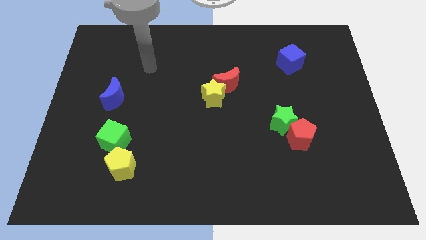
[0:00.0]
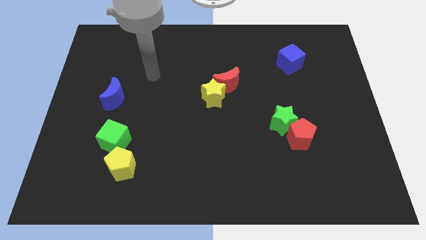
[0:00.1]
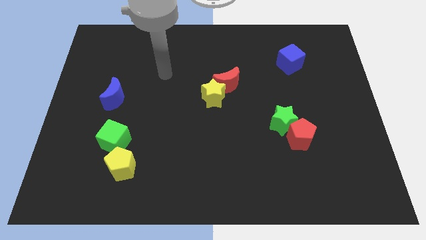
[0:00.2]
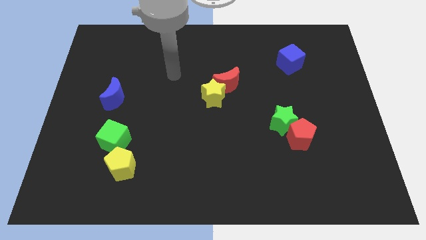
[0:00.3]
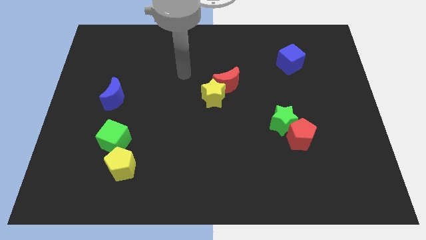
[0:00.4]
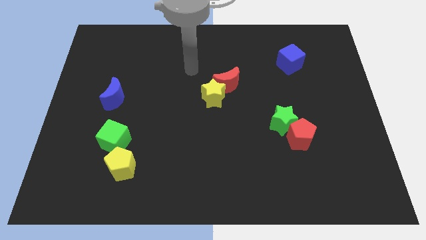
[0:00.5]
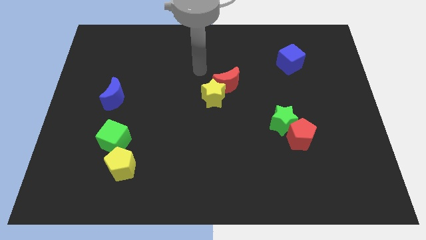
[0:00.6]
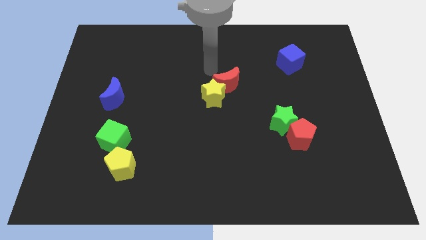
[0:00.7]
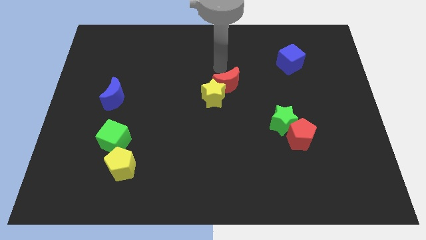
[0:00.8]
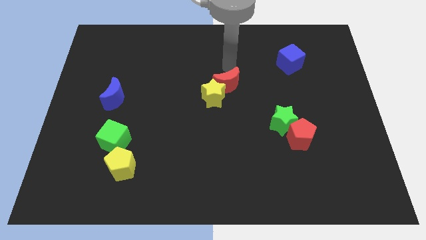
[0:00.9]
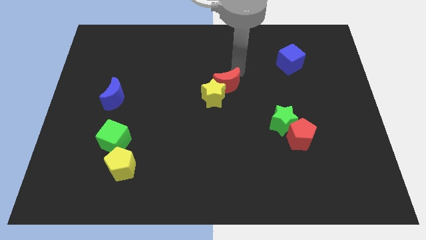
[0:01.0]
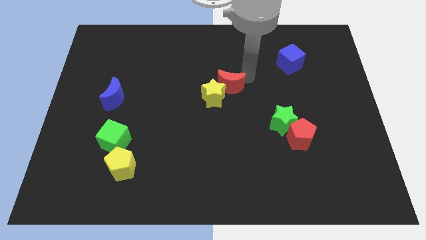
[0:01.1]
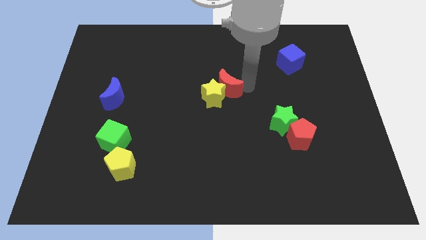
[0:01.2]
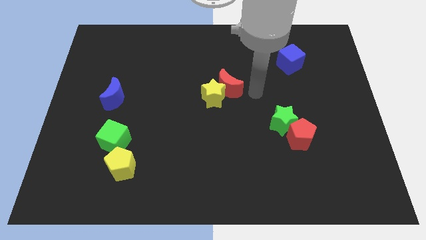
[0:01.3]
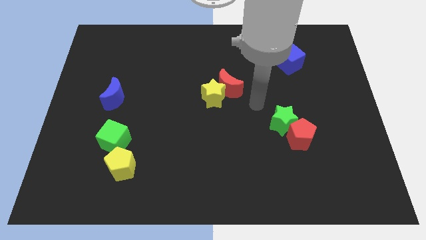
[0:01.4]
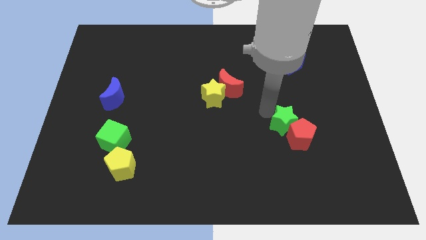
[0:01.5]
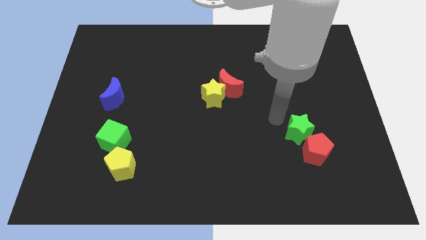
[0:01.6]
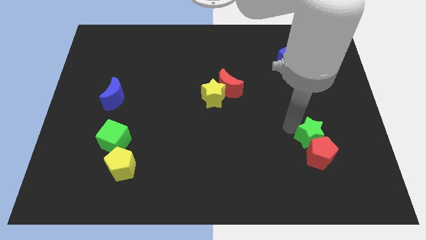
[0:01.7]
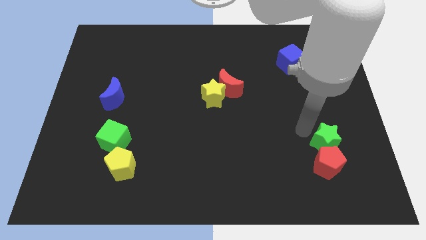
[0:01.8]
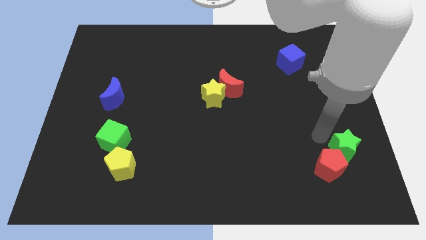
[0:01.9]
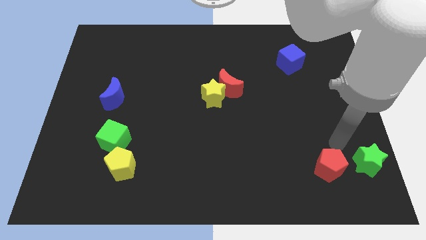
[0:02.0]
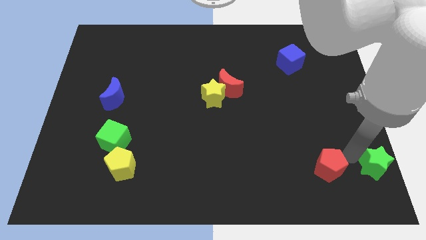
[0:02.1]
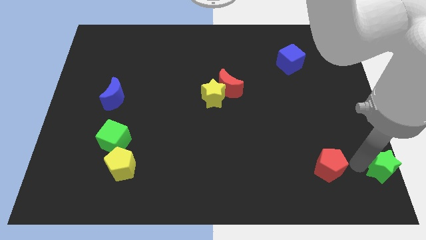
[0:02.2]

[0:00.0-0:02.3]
separate the red pentagon from the green star

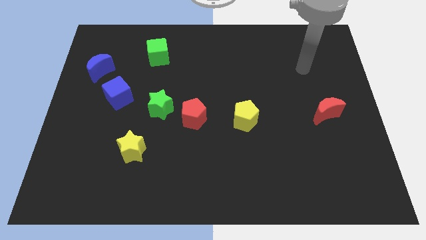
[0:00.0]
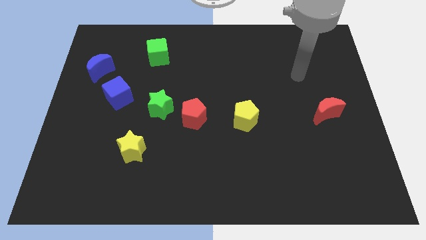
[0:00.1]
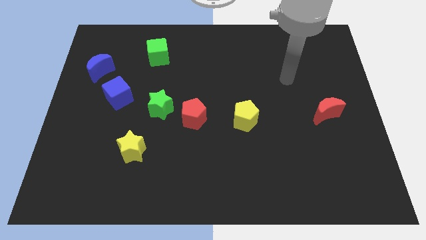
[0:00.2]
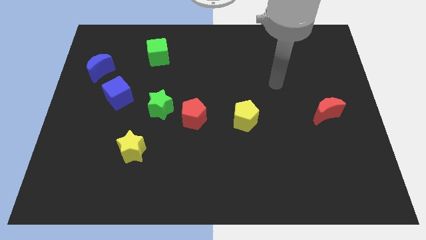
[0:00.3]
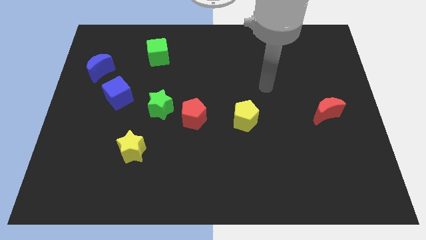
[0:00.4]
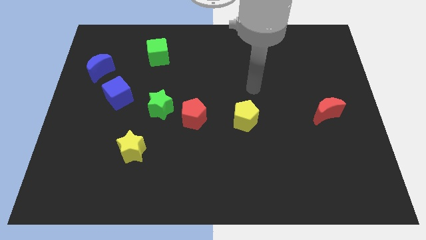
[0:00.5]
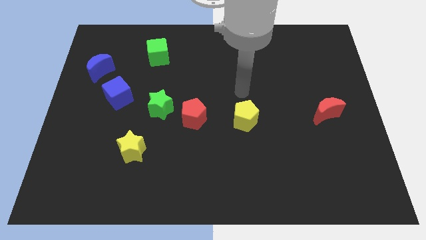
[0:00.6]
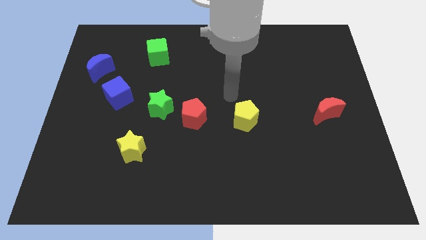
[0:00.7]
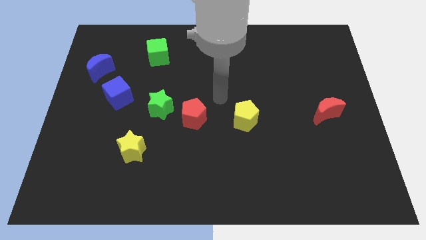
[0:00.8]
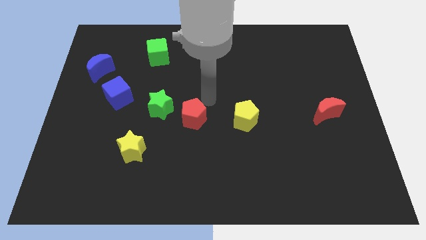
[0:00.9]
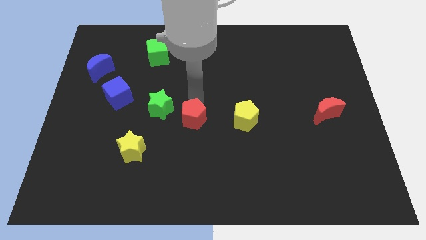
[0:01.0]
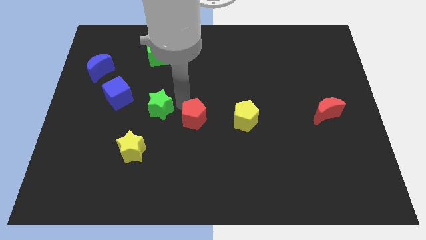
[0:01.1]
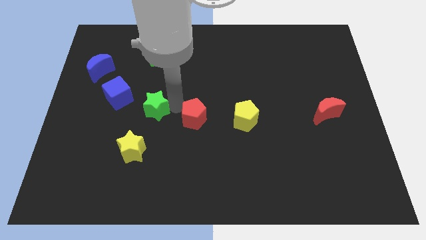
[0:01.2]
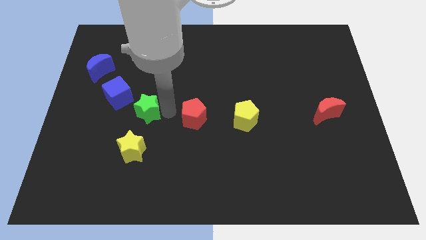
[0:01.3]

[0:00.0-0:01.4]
move the red pentagon away from the green star

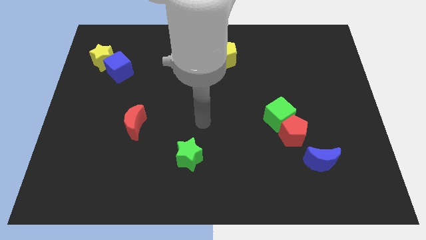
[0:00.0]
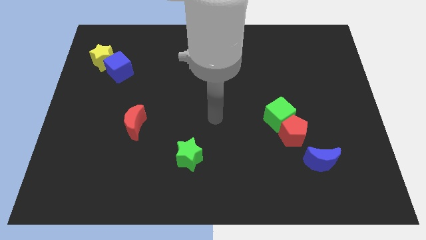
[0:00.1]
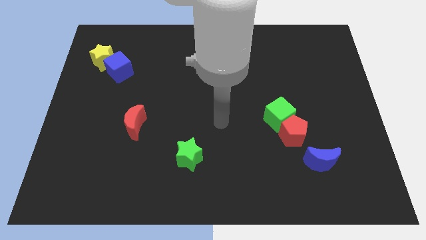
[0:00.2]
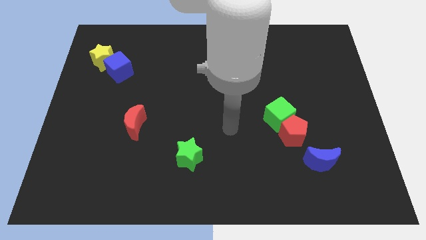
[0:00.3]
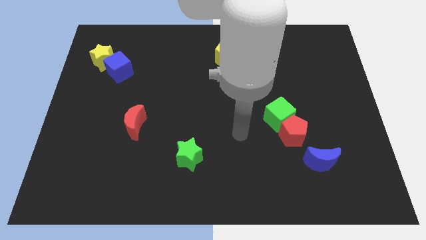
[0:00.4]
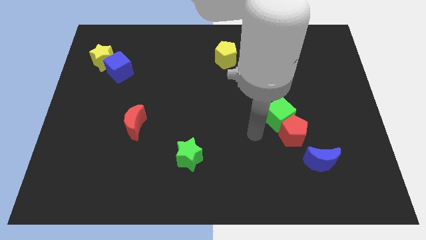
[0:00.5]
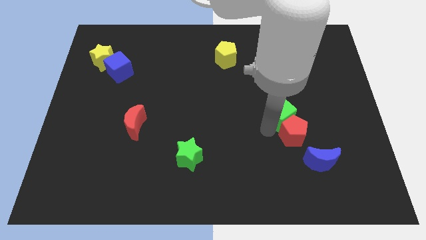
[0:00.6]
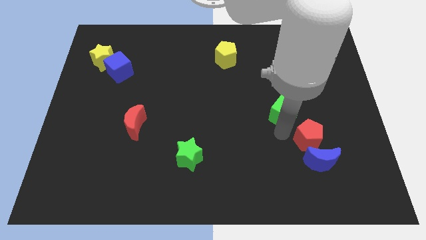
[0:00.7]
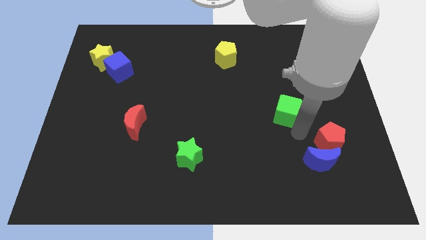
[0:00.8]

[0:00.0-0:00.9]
separate the green cube from the red pentagon

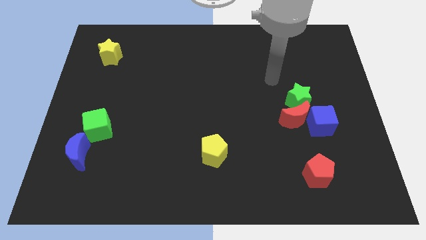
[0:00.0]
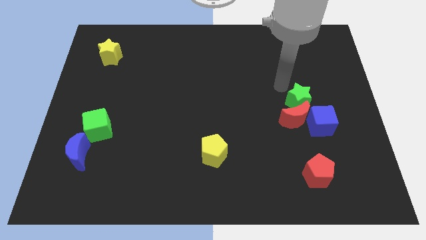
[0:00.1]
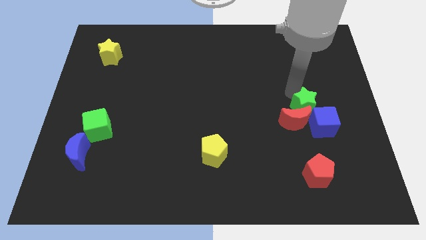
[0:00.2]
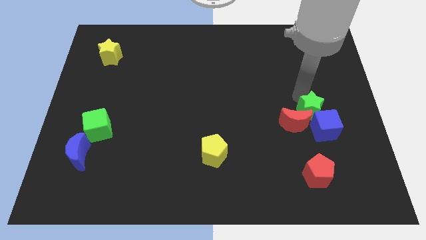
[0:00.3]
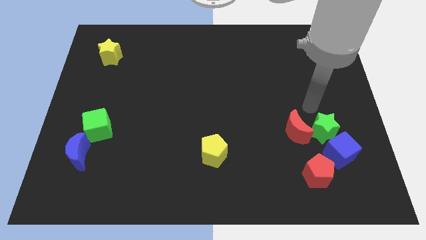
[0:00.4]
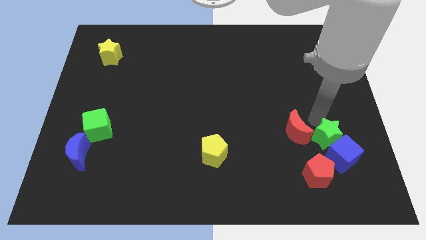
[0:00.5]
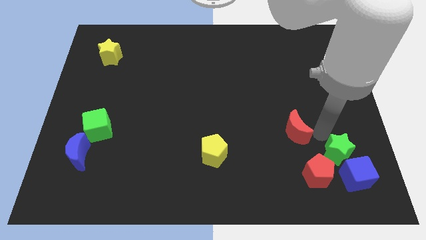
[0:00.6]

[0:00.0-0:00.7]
separate the red moon from the green star and blue cube

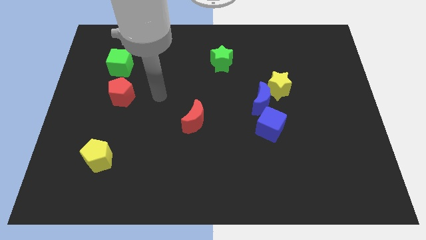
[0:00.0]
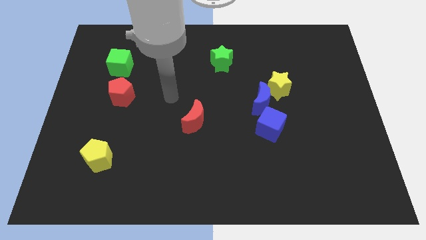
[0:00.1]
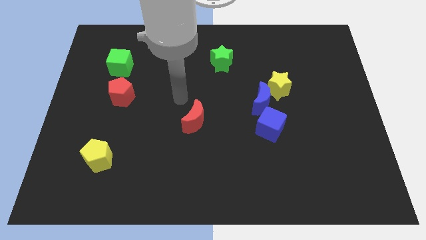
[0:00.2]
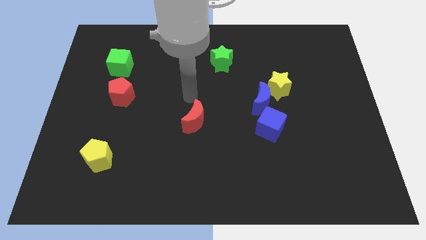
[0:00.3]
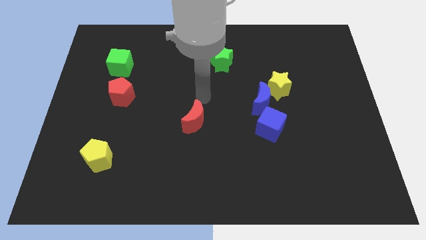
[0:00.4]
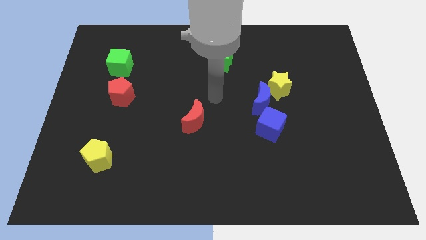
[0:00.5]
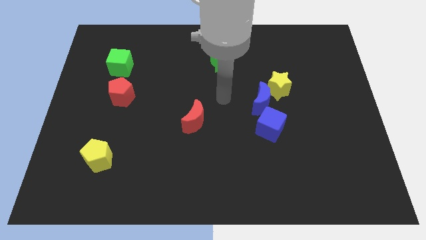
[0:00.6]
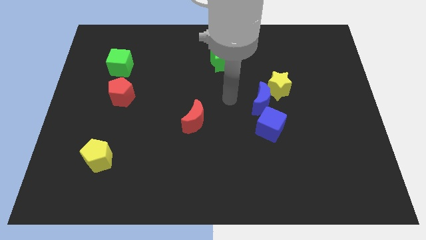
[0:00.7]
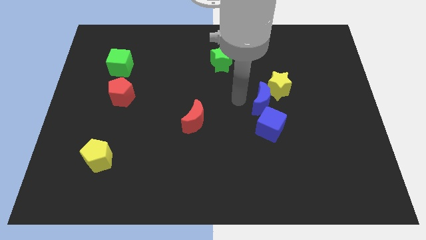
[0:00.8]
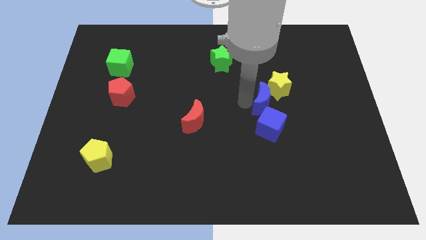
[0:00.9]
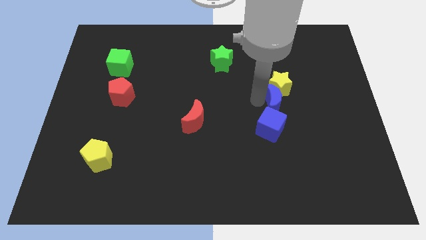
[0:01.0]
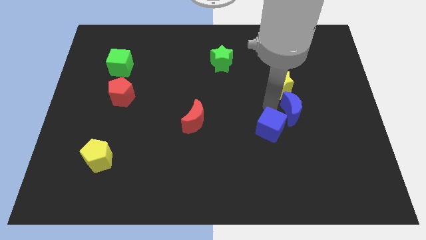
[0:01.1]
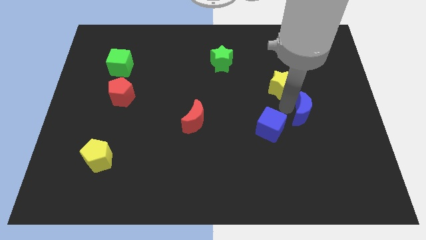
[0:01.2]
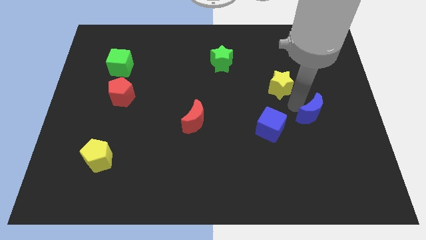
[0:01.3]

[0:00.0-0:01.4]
move the yellow star away from the blue moon

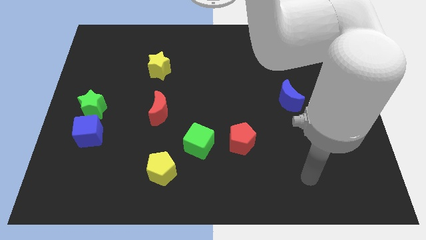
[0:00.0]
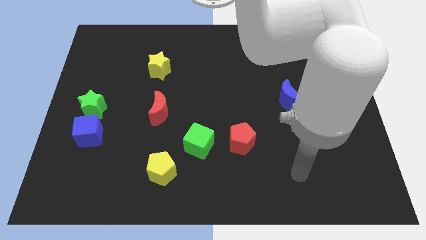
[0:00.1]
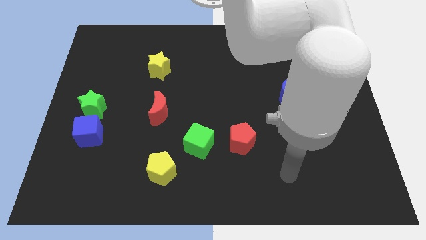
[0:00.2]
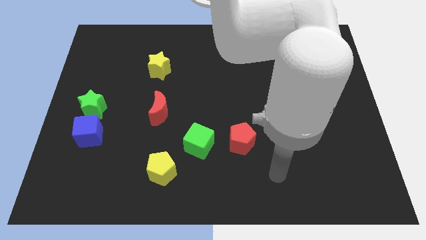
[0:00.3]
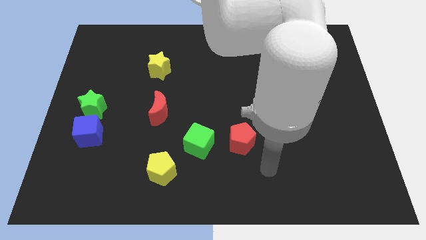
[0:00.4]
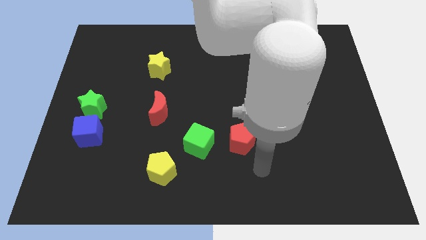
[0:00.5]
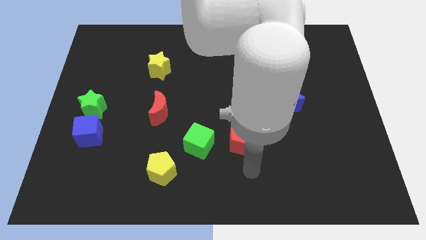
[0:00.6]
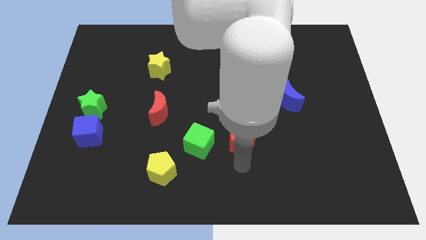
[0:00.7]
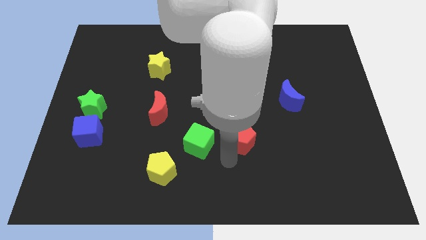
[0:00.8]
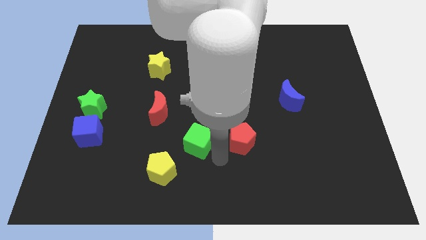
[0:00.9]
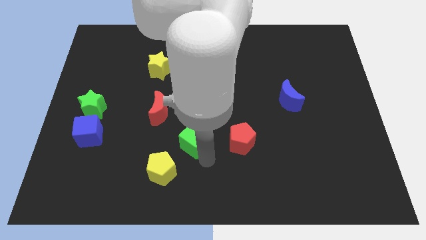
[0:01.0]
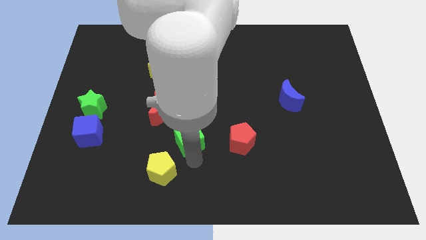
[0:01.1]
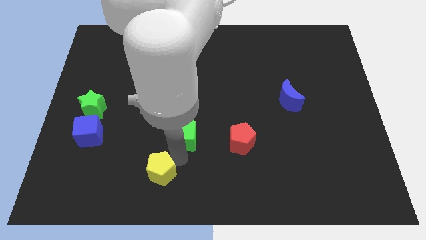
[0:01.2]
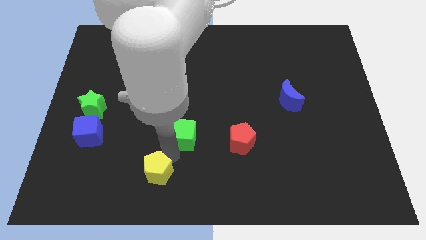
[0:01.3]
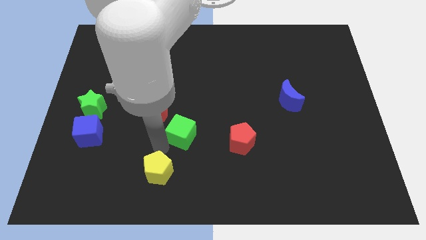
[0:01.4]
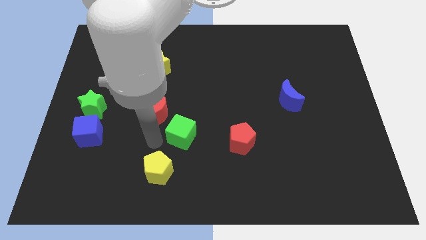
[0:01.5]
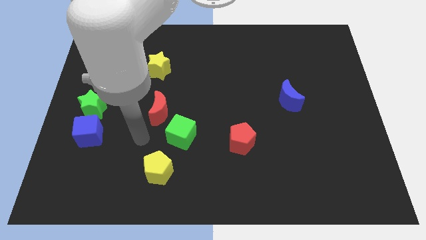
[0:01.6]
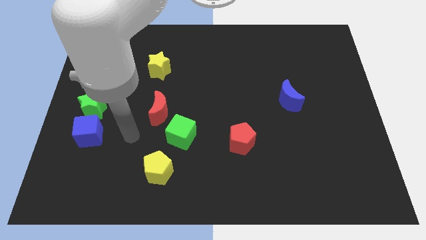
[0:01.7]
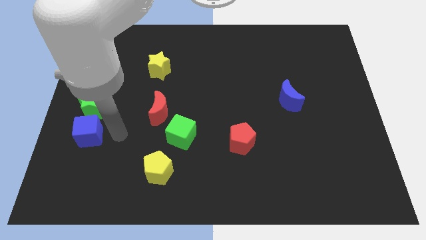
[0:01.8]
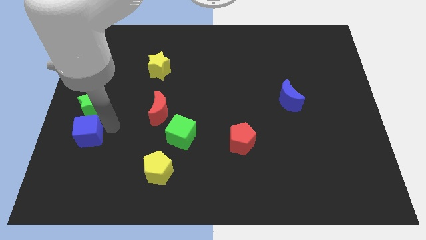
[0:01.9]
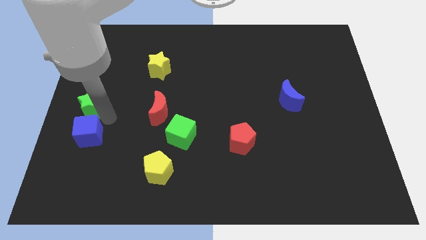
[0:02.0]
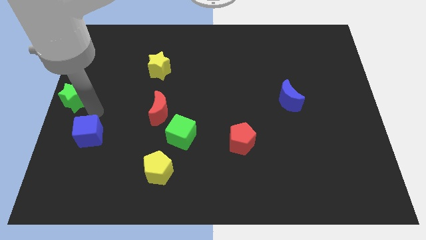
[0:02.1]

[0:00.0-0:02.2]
move the blue cube away from the green star

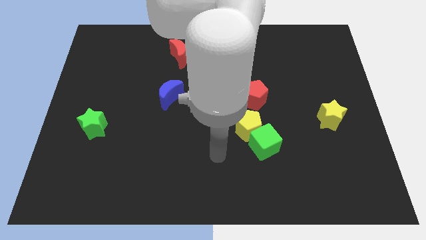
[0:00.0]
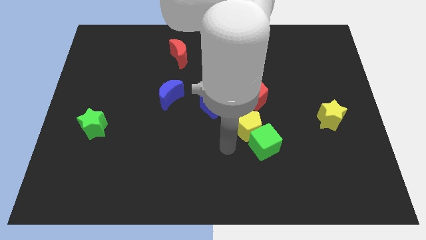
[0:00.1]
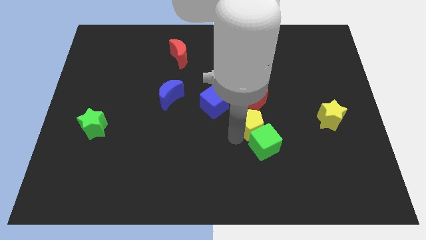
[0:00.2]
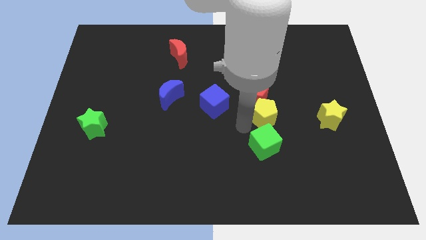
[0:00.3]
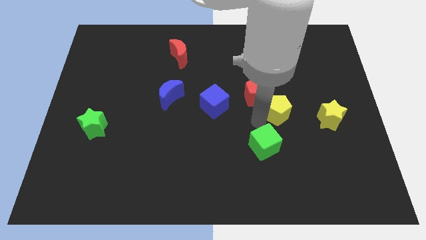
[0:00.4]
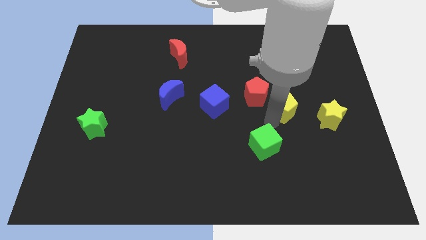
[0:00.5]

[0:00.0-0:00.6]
separate the green cube from the yellow pentagon
